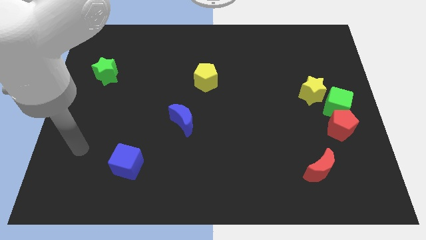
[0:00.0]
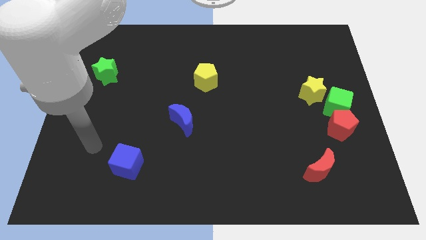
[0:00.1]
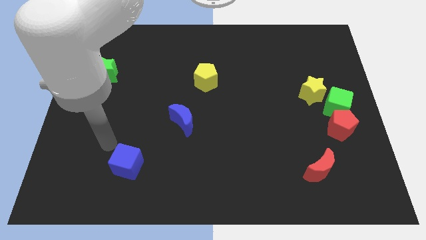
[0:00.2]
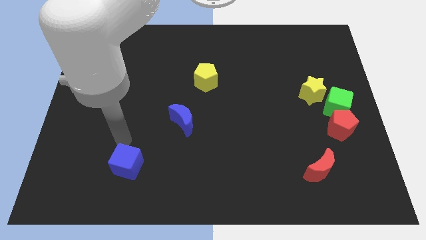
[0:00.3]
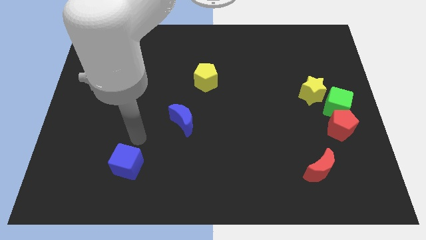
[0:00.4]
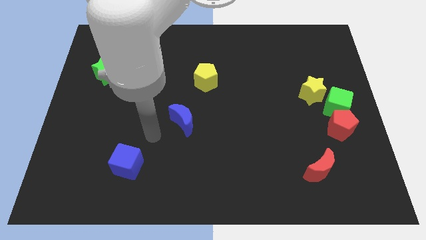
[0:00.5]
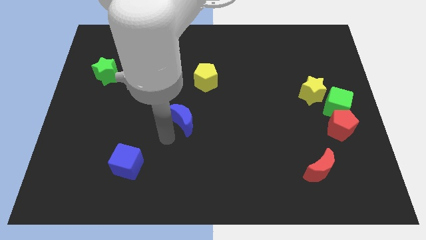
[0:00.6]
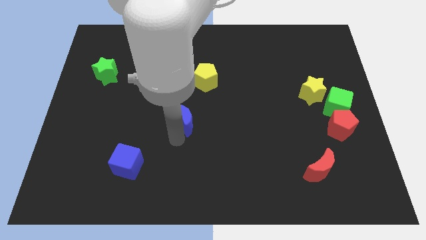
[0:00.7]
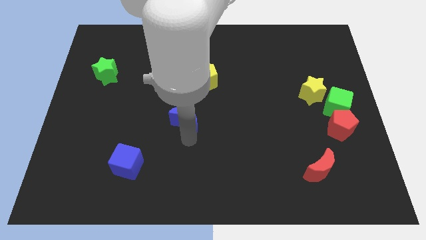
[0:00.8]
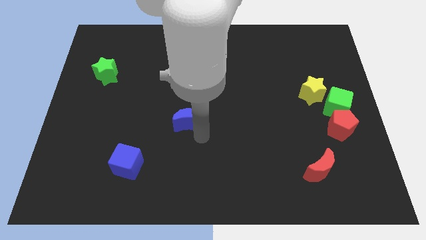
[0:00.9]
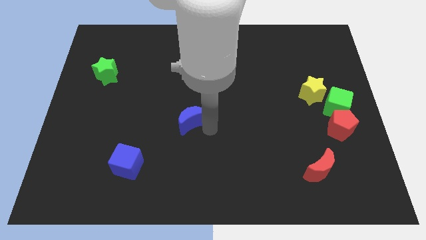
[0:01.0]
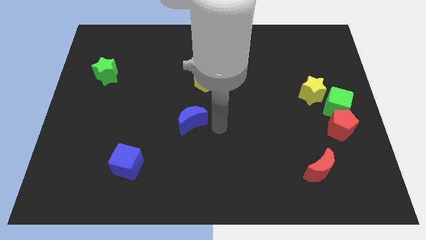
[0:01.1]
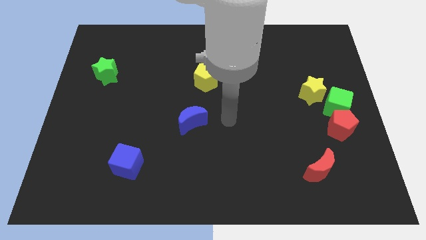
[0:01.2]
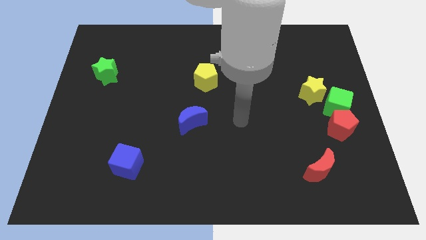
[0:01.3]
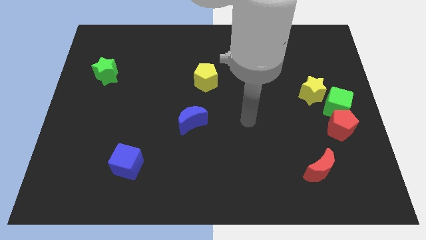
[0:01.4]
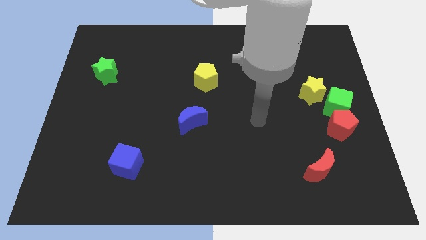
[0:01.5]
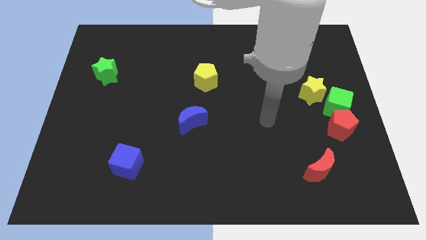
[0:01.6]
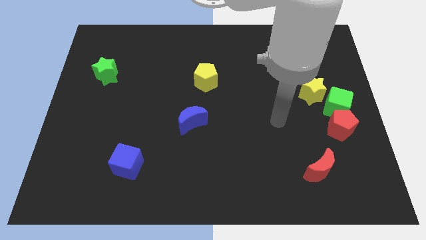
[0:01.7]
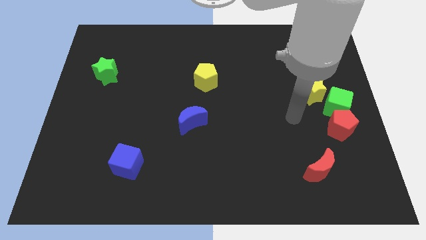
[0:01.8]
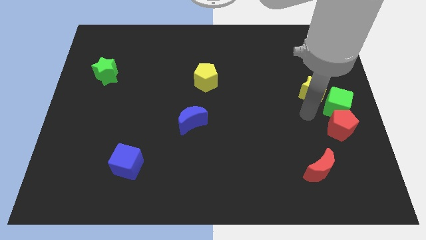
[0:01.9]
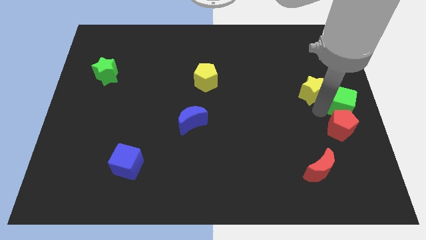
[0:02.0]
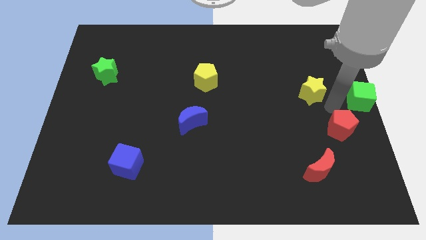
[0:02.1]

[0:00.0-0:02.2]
separate the red pentagon from the green cube

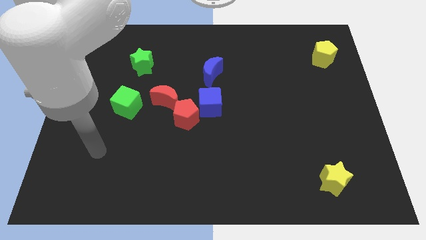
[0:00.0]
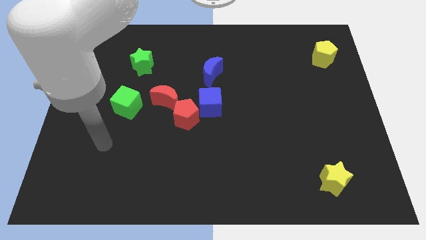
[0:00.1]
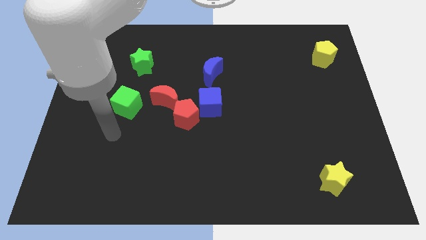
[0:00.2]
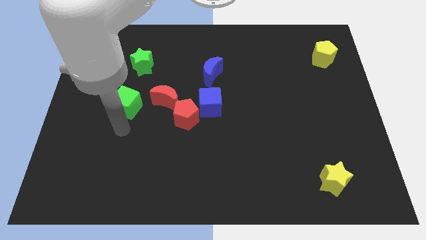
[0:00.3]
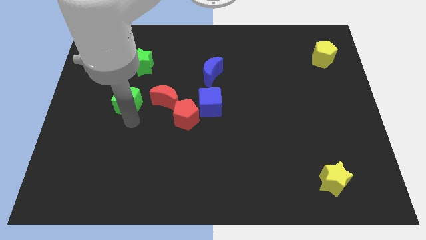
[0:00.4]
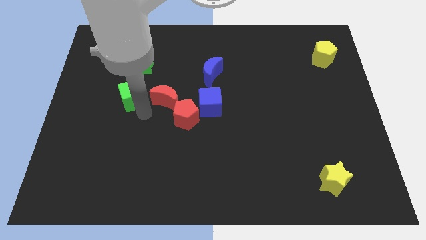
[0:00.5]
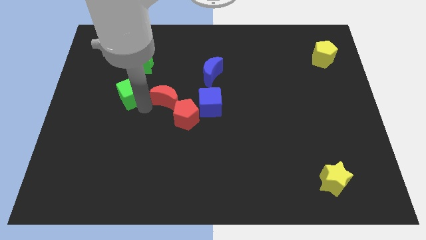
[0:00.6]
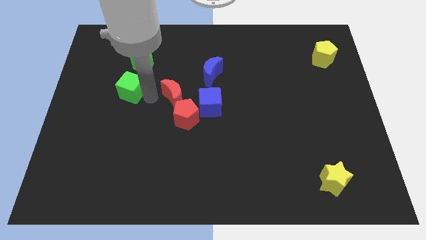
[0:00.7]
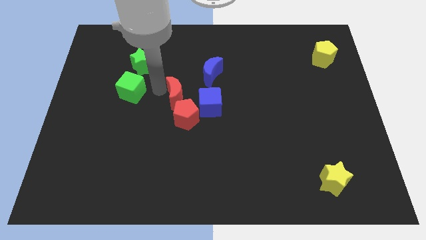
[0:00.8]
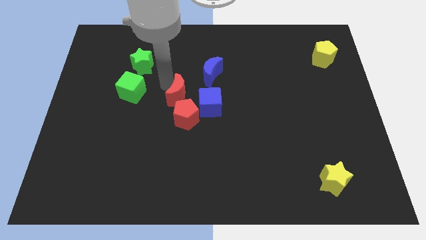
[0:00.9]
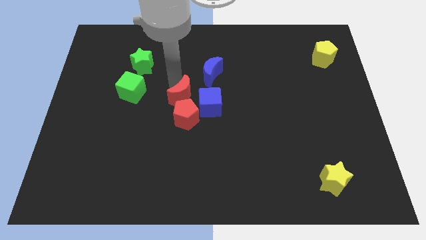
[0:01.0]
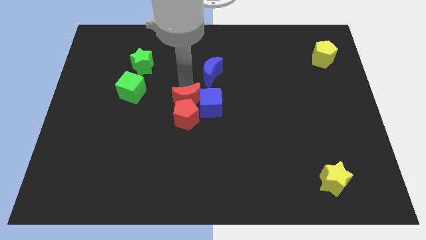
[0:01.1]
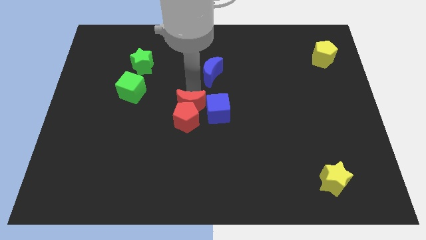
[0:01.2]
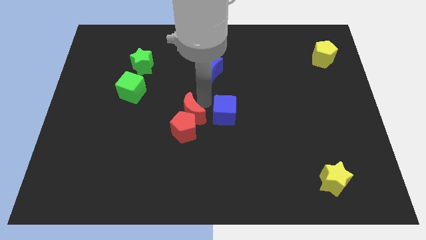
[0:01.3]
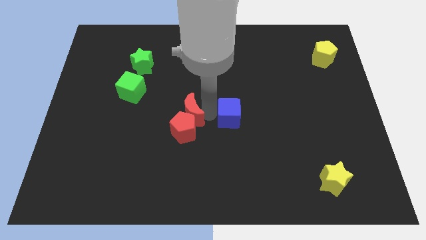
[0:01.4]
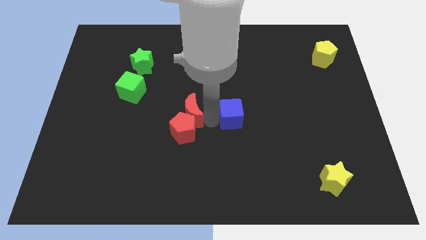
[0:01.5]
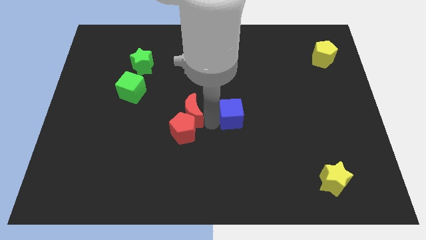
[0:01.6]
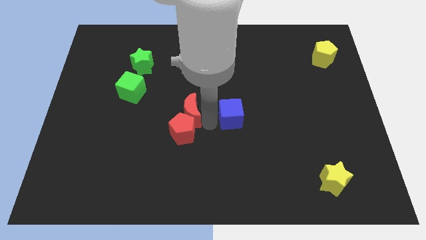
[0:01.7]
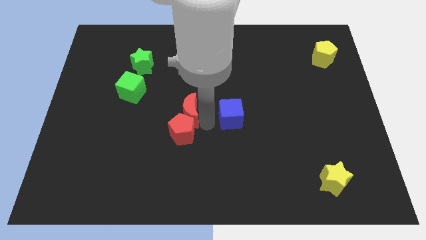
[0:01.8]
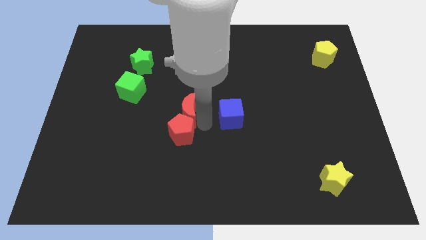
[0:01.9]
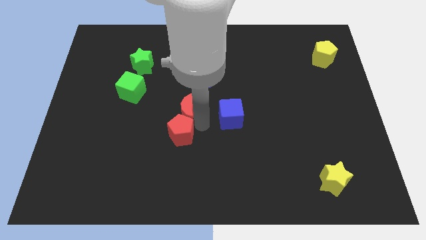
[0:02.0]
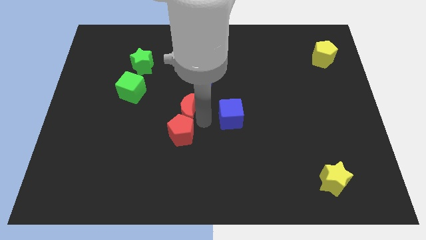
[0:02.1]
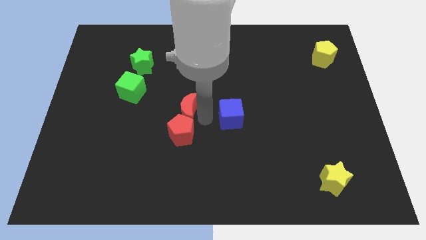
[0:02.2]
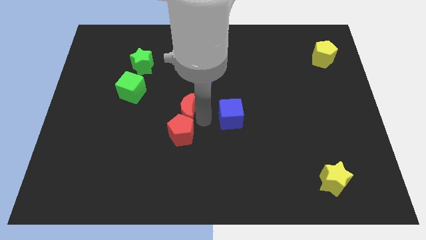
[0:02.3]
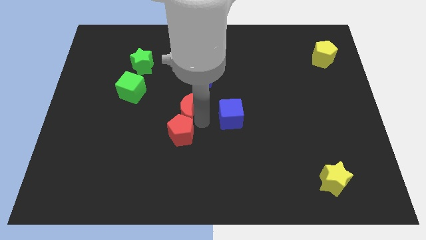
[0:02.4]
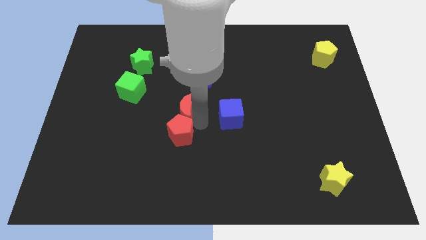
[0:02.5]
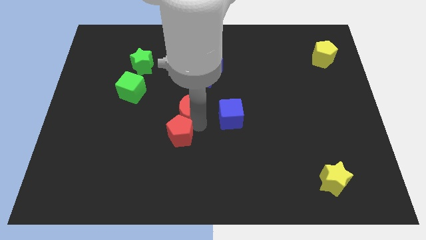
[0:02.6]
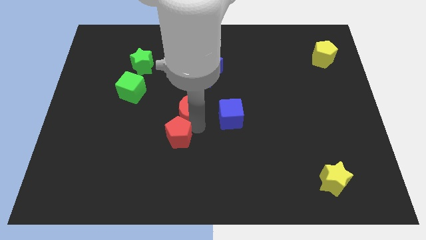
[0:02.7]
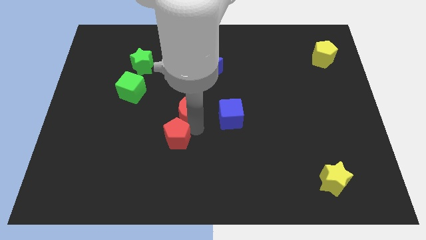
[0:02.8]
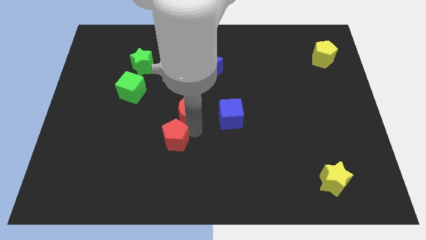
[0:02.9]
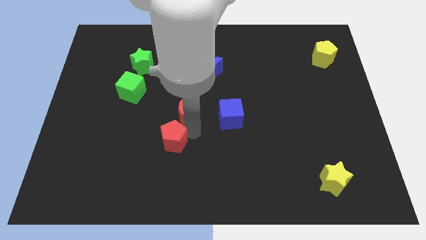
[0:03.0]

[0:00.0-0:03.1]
move the red pentagon away from the blue cube and red moon

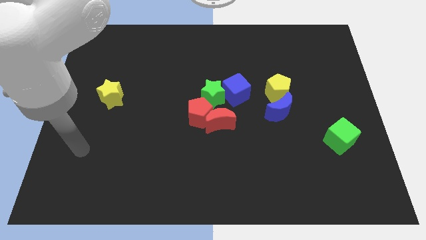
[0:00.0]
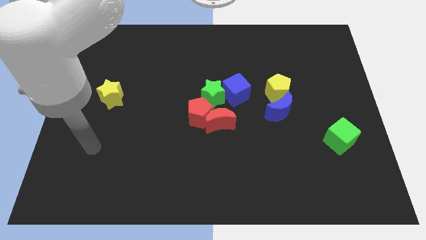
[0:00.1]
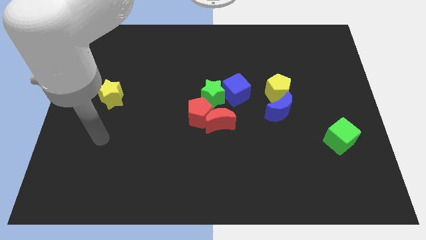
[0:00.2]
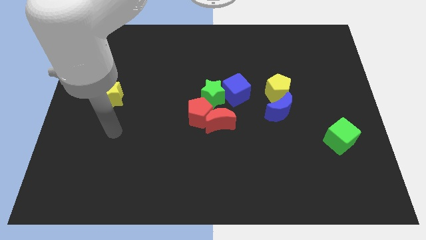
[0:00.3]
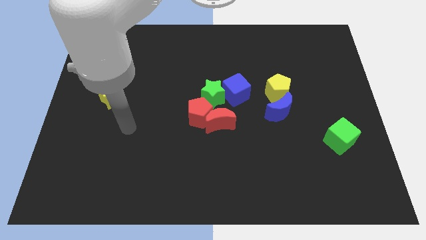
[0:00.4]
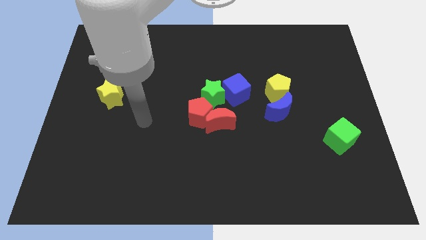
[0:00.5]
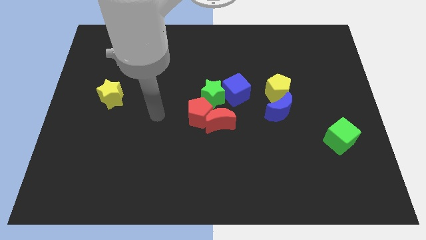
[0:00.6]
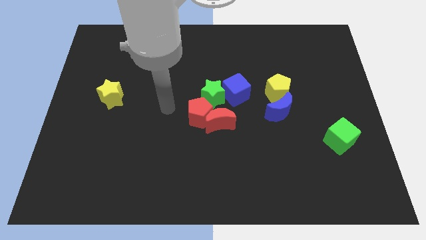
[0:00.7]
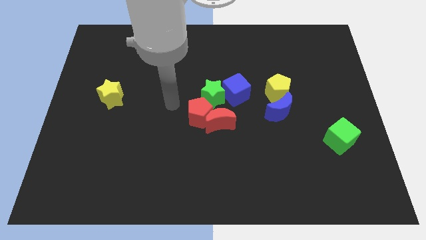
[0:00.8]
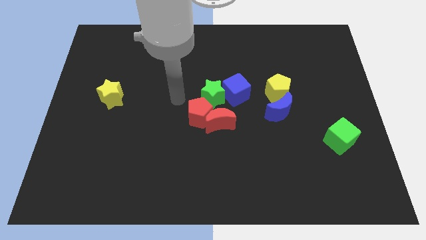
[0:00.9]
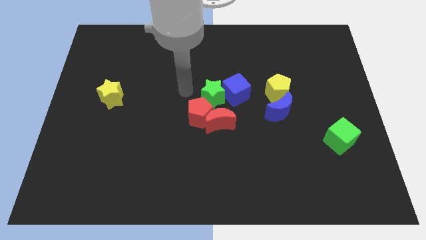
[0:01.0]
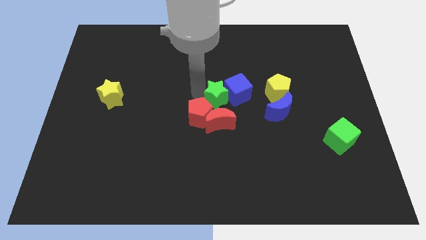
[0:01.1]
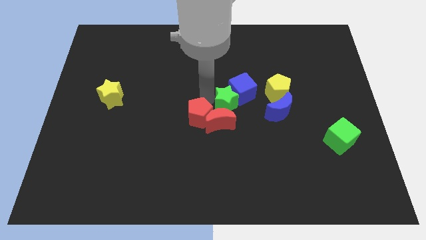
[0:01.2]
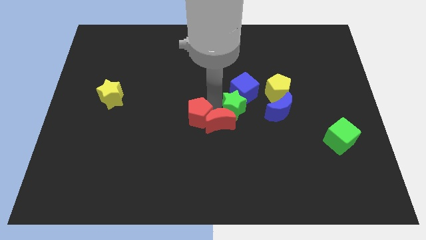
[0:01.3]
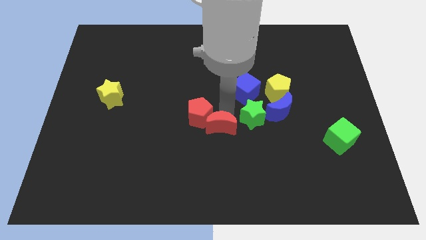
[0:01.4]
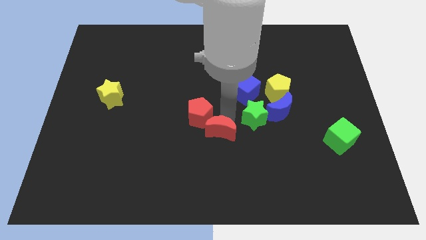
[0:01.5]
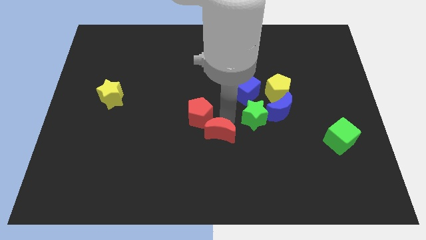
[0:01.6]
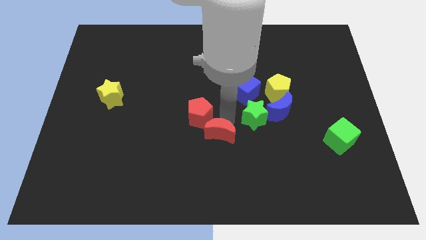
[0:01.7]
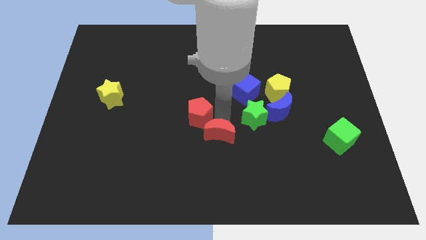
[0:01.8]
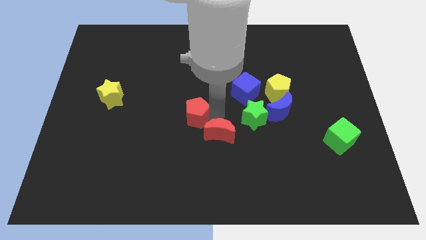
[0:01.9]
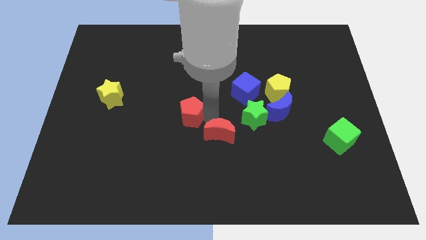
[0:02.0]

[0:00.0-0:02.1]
separate the red pentagon from the red moon and green star

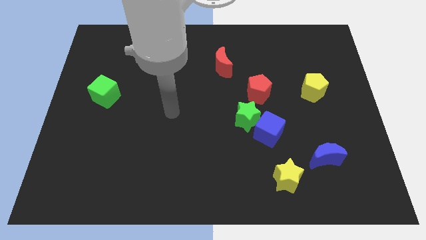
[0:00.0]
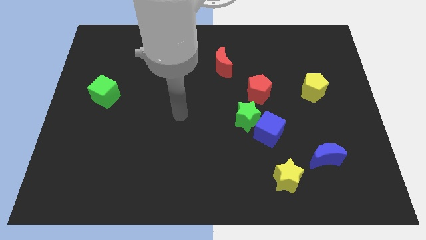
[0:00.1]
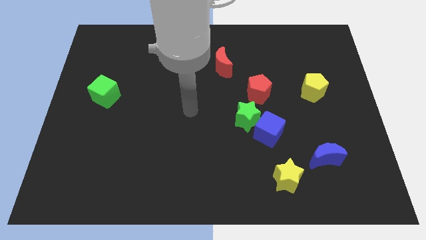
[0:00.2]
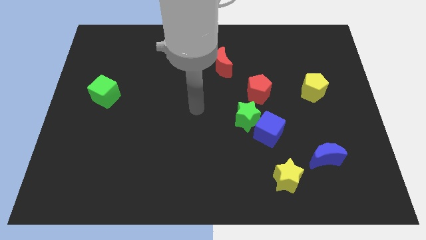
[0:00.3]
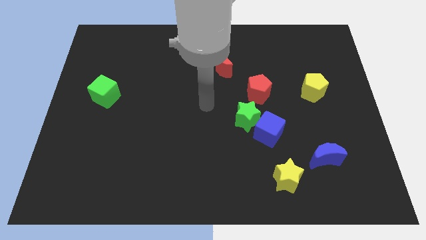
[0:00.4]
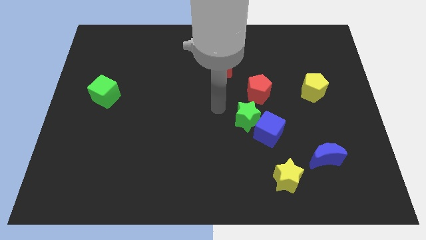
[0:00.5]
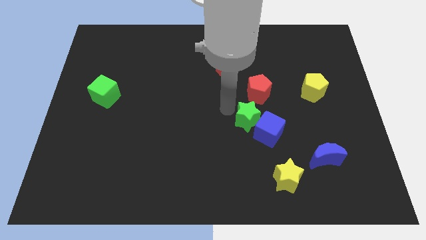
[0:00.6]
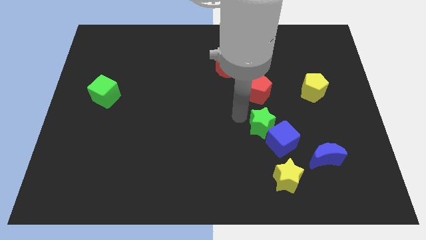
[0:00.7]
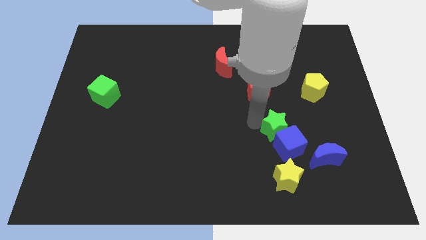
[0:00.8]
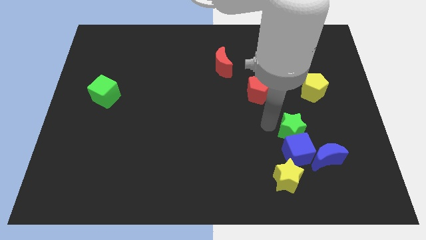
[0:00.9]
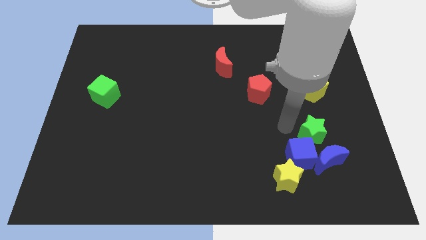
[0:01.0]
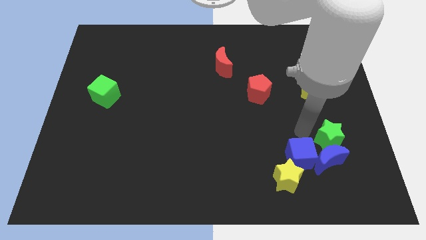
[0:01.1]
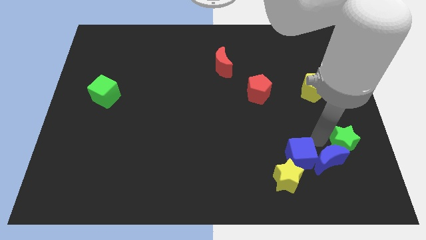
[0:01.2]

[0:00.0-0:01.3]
pull the blue cube apart from the green star

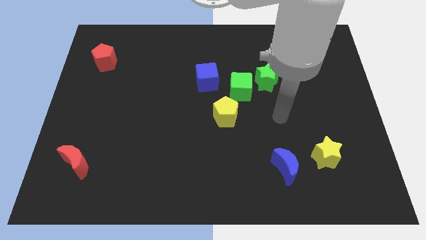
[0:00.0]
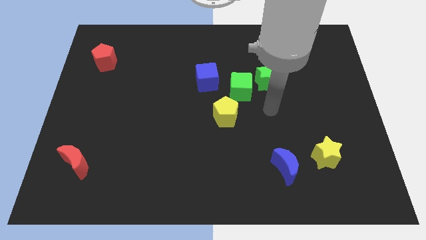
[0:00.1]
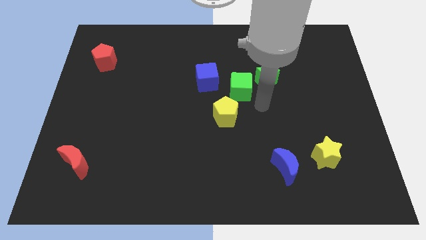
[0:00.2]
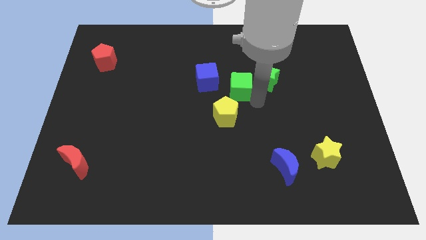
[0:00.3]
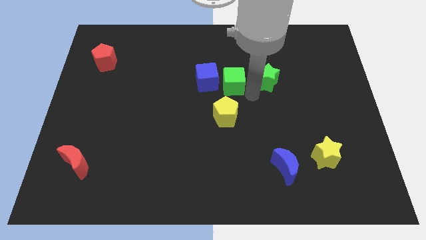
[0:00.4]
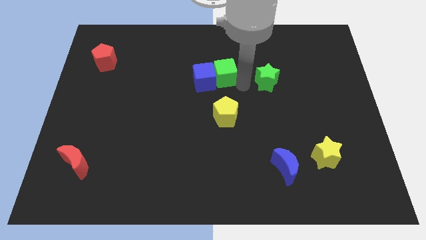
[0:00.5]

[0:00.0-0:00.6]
pull the green star apart from the green cube
